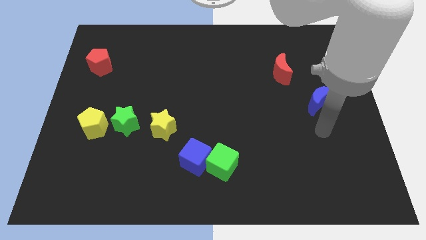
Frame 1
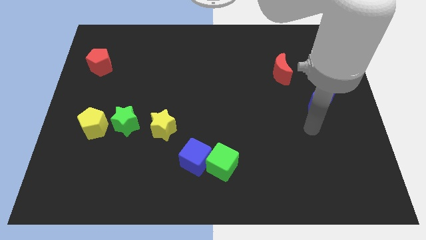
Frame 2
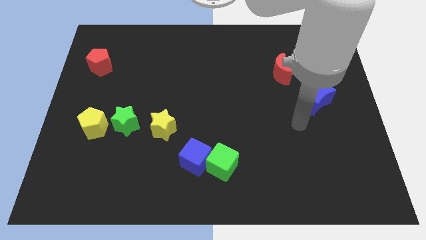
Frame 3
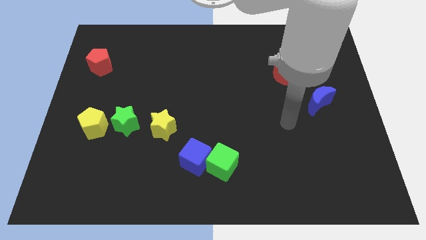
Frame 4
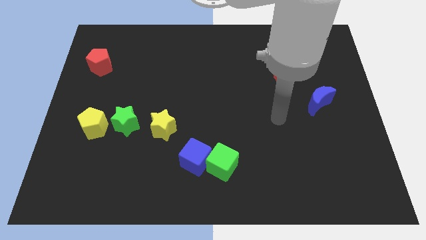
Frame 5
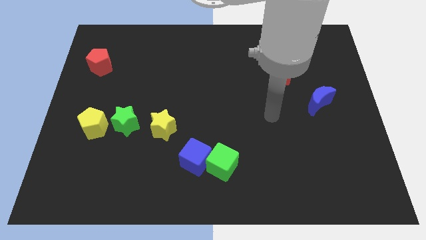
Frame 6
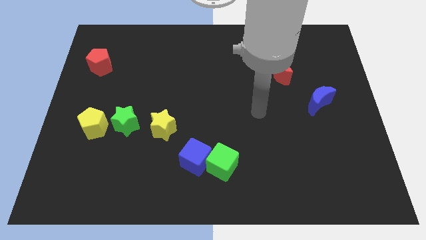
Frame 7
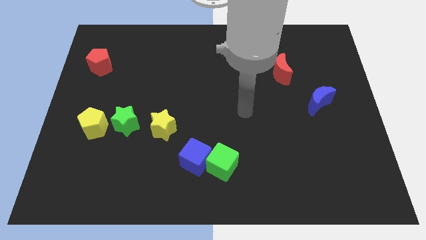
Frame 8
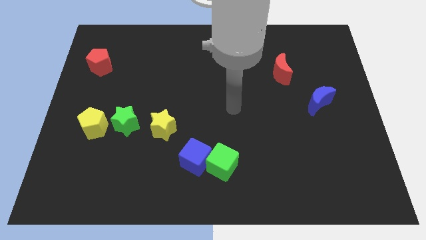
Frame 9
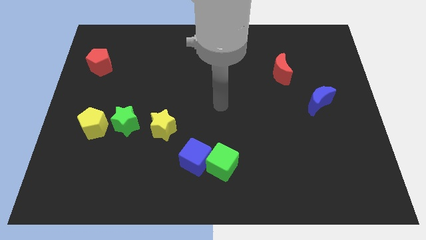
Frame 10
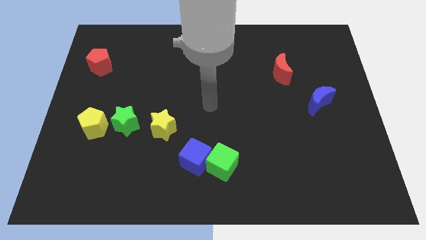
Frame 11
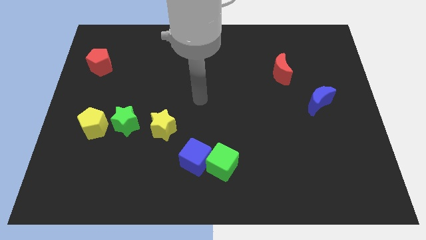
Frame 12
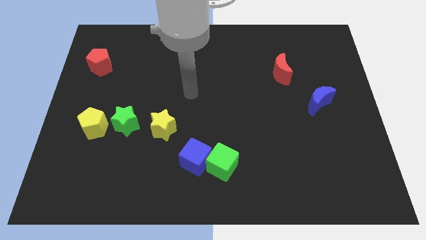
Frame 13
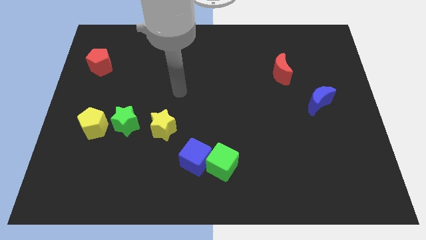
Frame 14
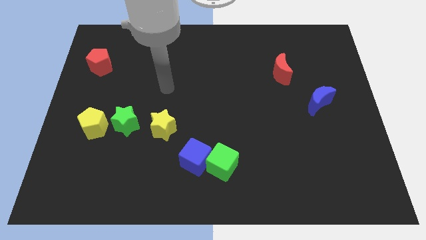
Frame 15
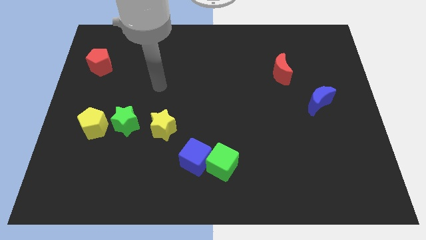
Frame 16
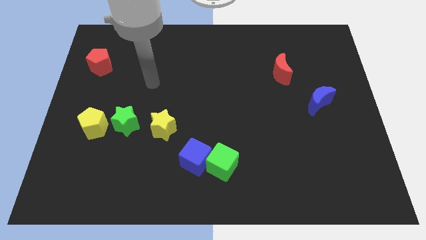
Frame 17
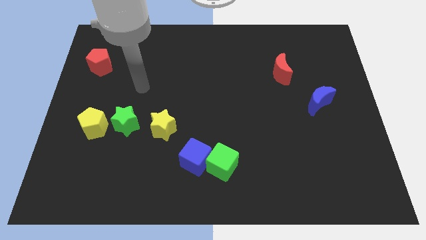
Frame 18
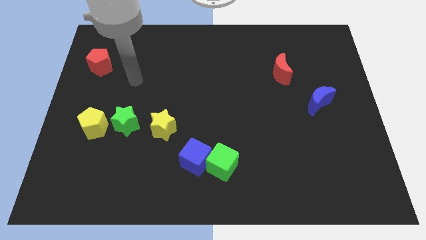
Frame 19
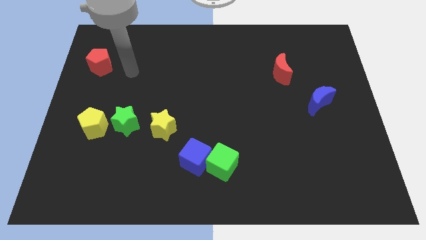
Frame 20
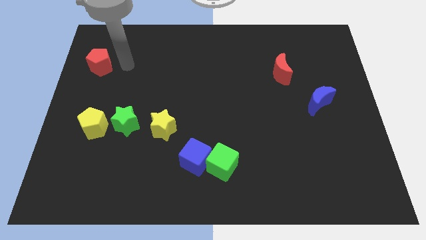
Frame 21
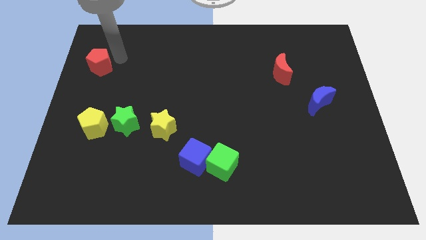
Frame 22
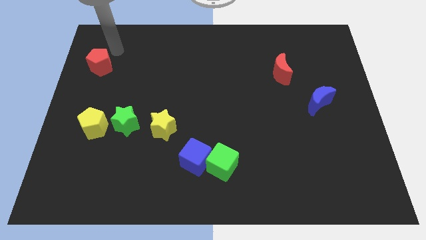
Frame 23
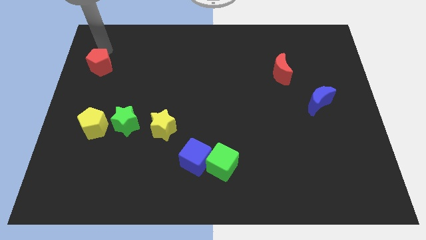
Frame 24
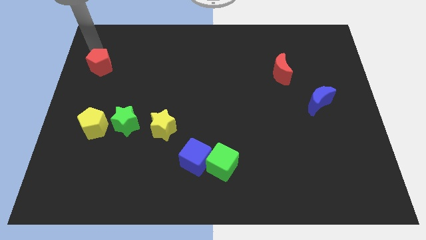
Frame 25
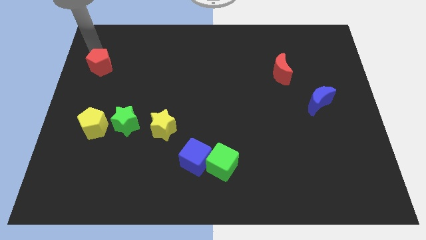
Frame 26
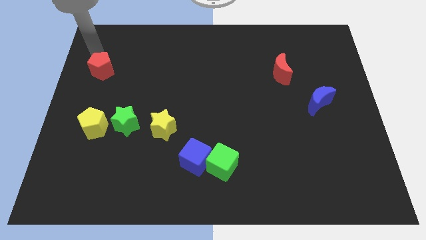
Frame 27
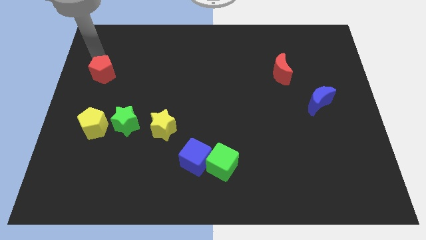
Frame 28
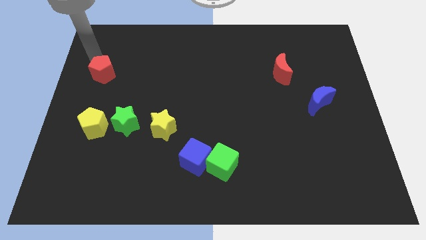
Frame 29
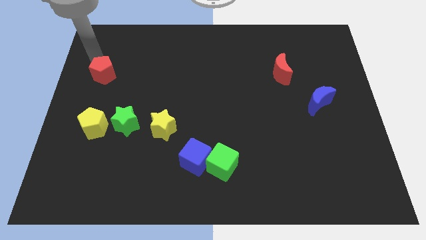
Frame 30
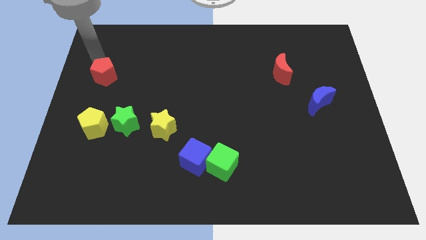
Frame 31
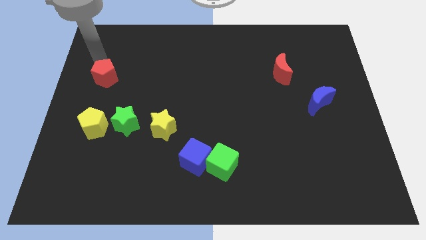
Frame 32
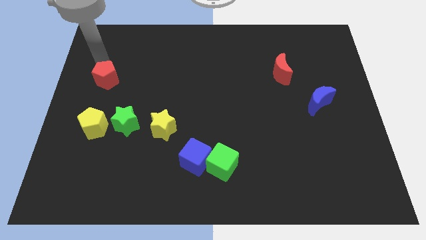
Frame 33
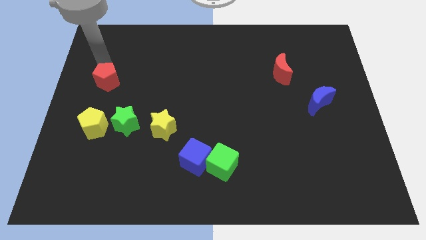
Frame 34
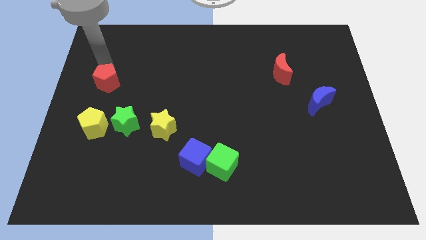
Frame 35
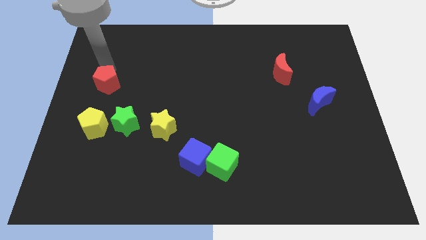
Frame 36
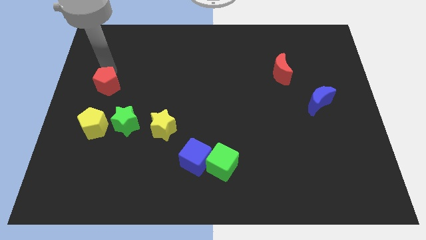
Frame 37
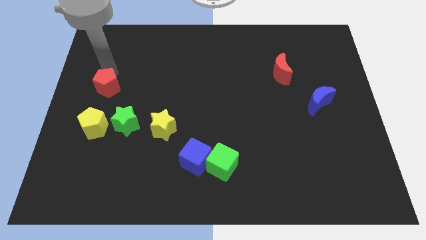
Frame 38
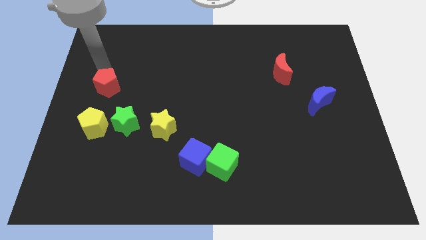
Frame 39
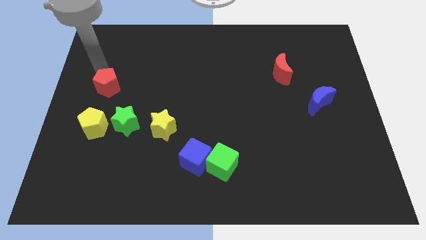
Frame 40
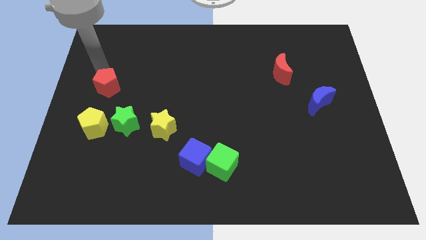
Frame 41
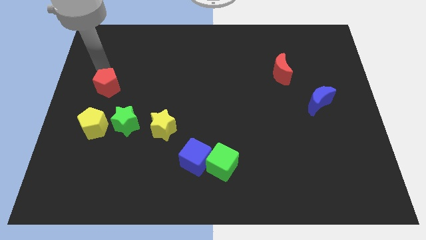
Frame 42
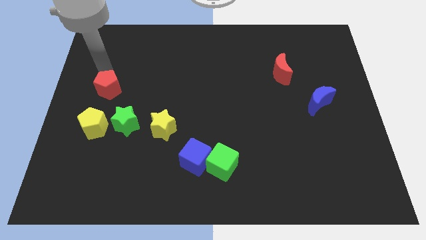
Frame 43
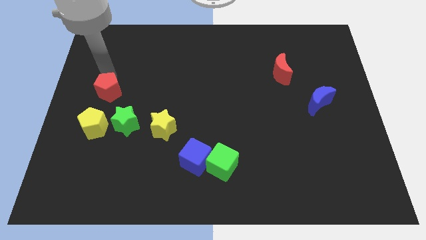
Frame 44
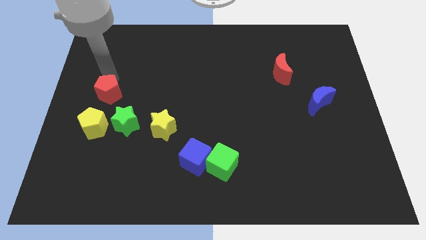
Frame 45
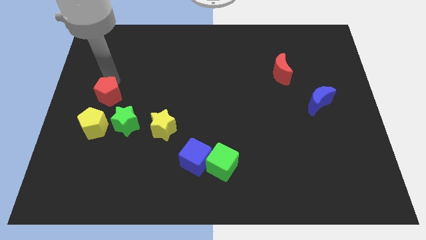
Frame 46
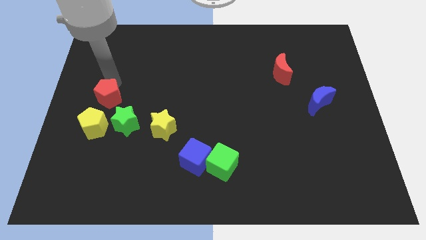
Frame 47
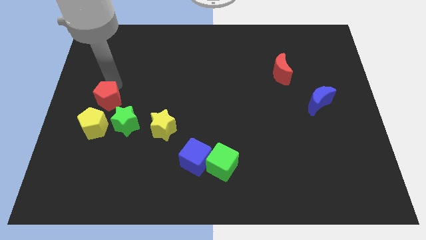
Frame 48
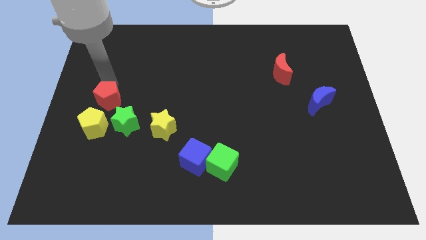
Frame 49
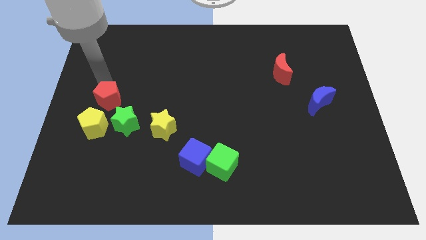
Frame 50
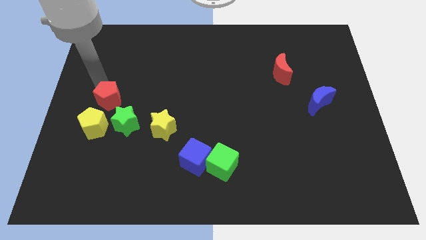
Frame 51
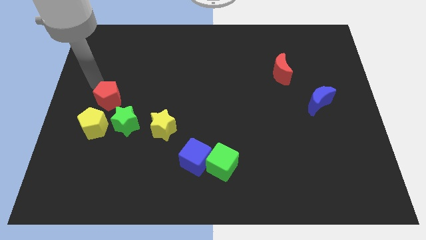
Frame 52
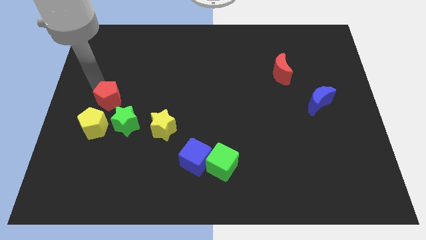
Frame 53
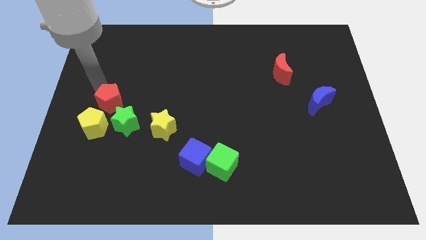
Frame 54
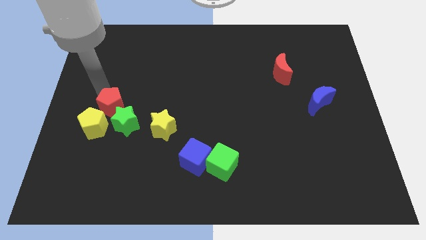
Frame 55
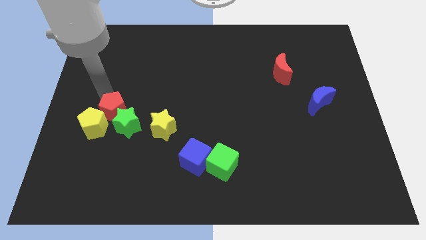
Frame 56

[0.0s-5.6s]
slide the red pentagon close to the green star

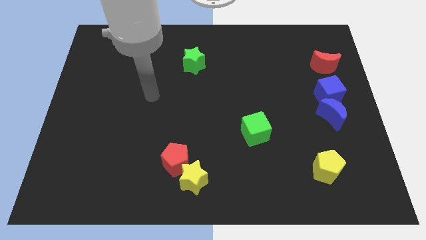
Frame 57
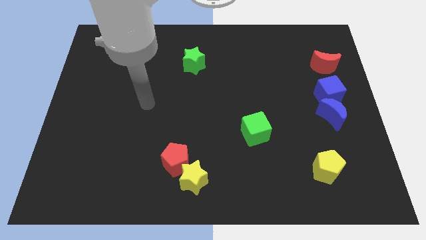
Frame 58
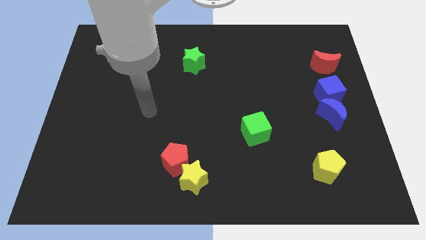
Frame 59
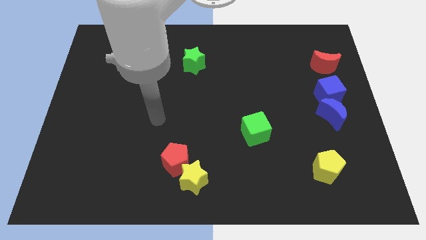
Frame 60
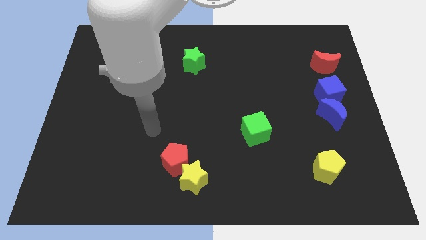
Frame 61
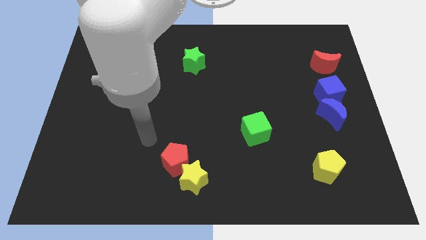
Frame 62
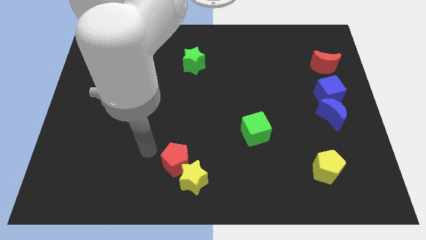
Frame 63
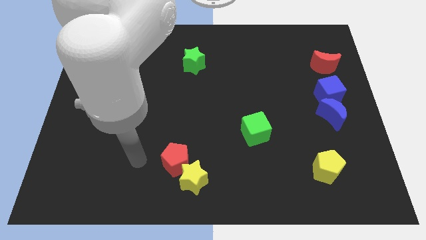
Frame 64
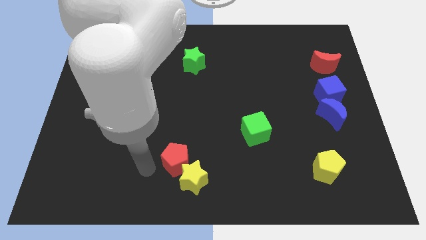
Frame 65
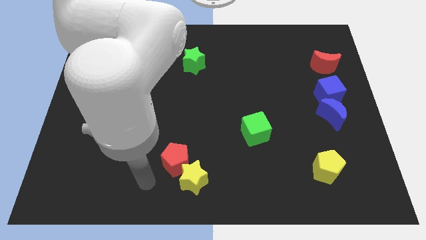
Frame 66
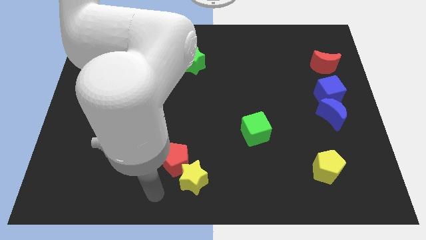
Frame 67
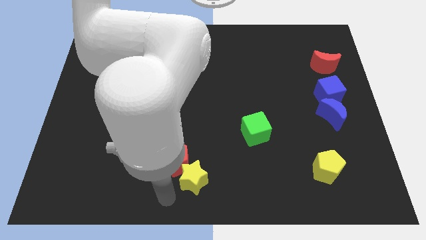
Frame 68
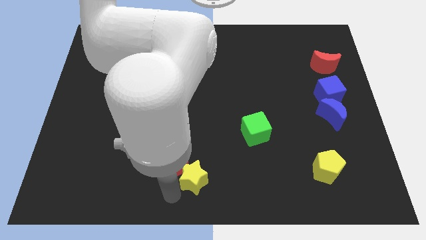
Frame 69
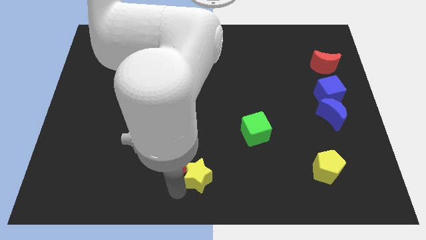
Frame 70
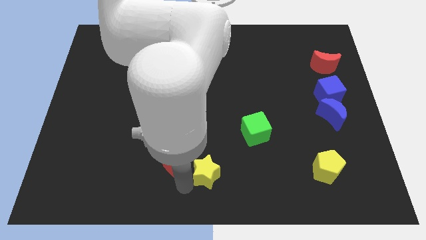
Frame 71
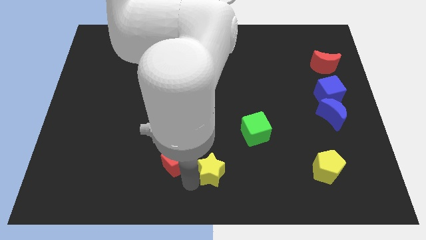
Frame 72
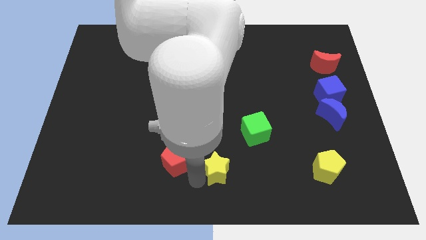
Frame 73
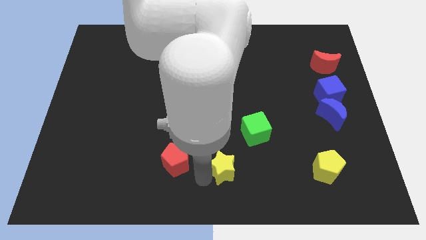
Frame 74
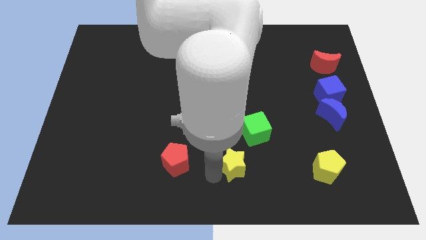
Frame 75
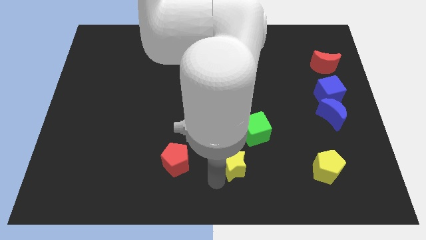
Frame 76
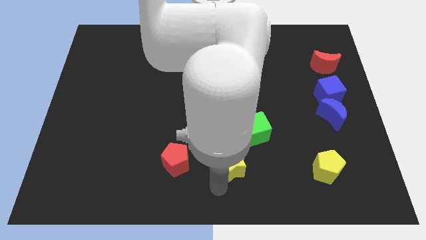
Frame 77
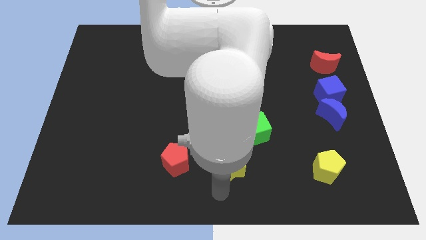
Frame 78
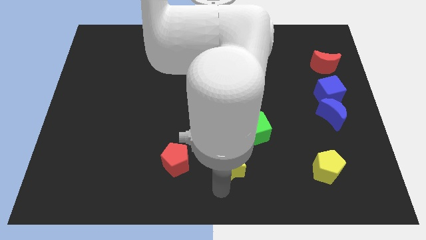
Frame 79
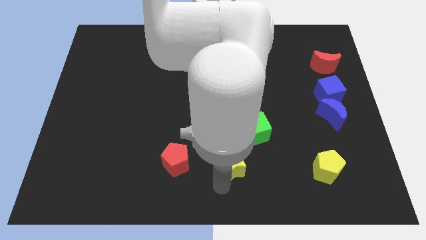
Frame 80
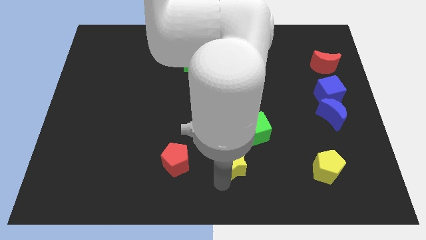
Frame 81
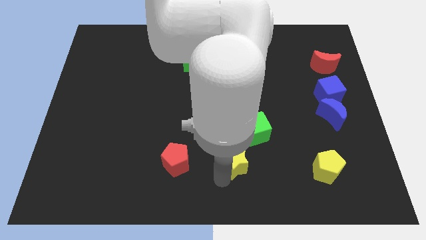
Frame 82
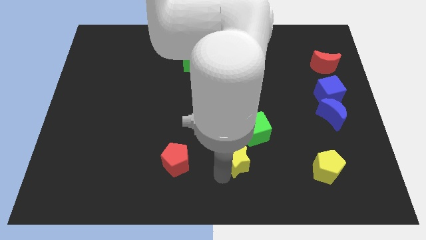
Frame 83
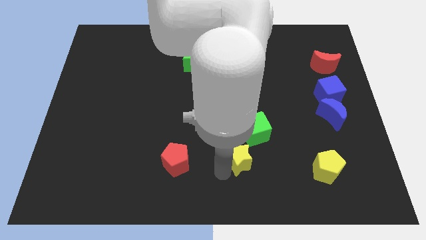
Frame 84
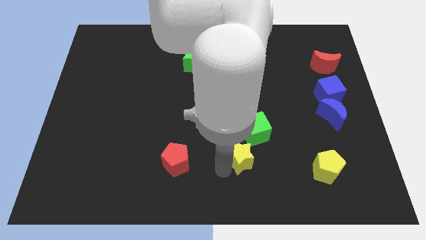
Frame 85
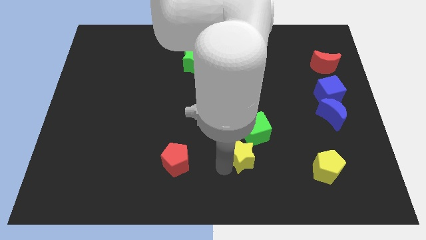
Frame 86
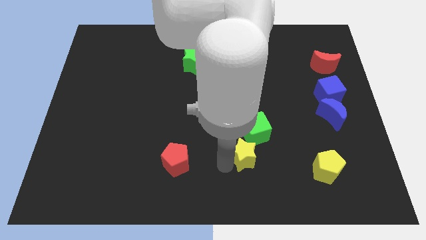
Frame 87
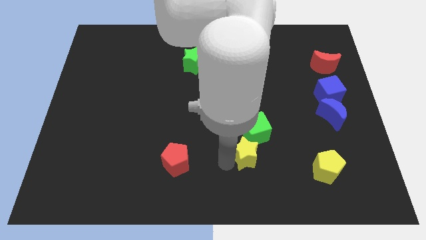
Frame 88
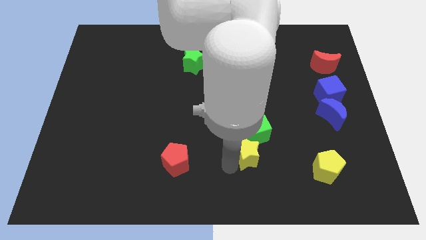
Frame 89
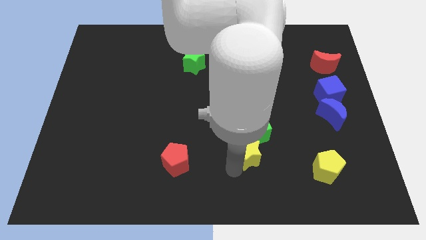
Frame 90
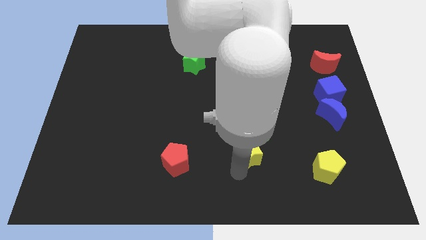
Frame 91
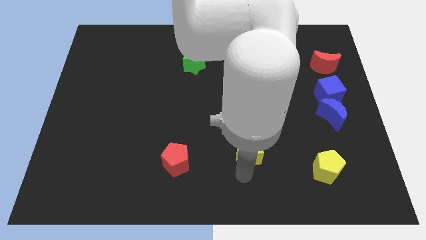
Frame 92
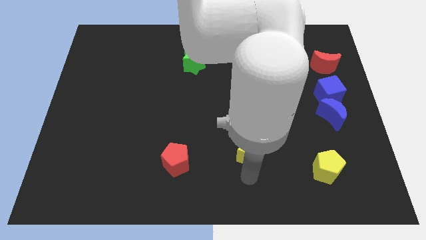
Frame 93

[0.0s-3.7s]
push the yellow star next to the green cube
